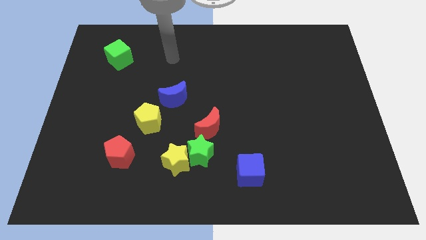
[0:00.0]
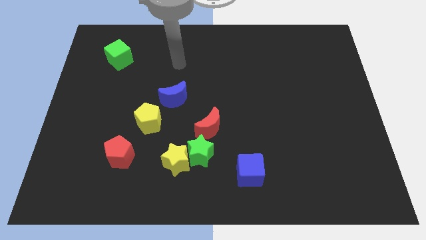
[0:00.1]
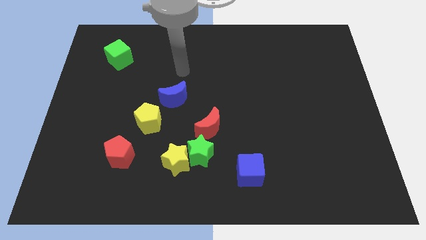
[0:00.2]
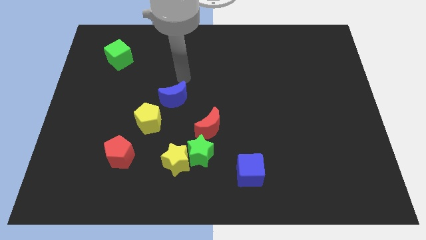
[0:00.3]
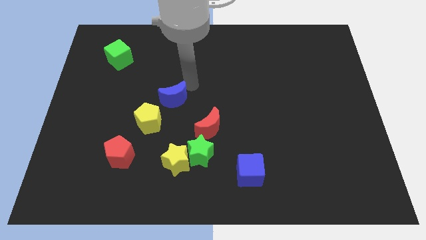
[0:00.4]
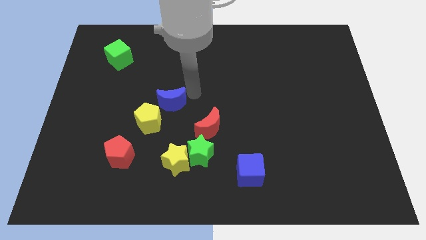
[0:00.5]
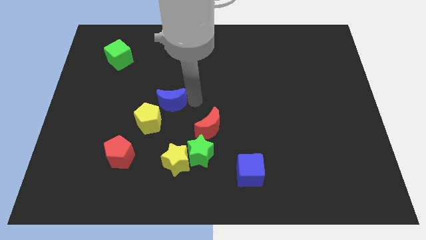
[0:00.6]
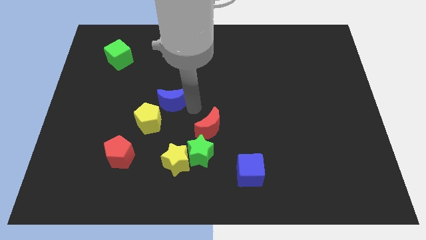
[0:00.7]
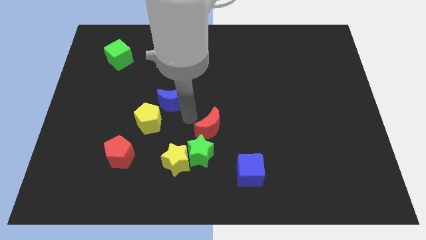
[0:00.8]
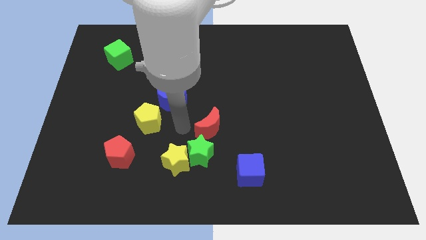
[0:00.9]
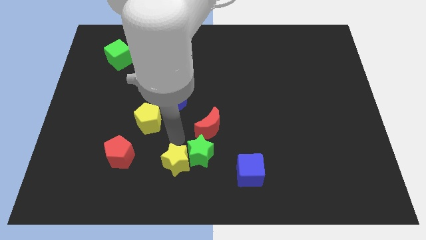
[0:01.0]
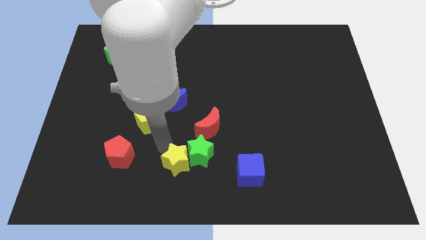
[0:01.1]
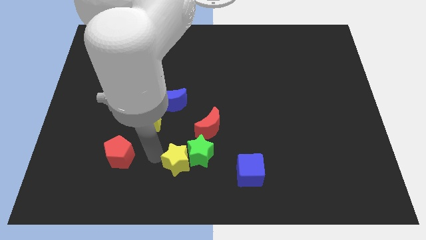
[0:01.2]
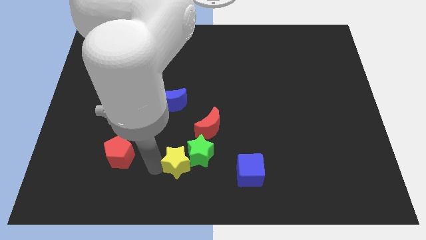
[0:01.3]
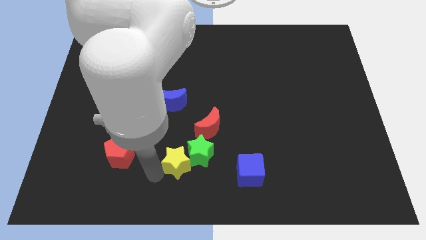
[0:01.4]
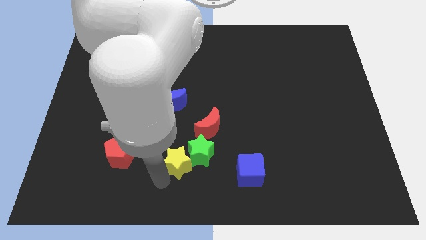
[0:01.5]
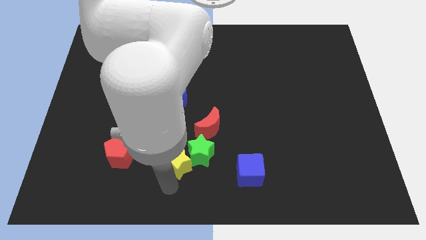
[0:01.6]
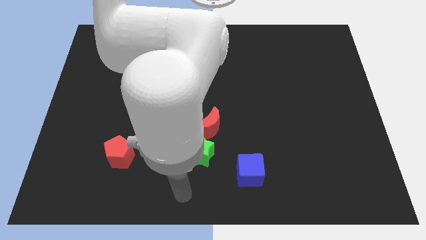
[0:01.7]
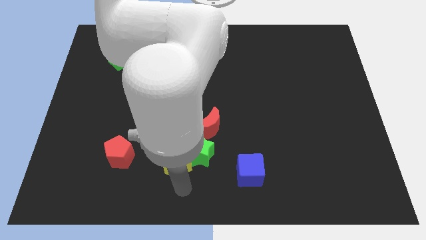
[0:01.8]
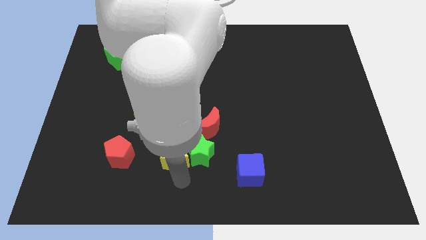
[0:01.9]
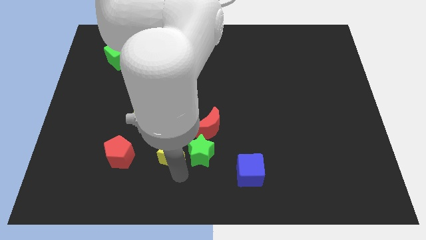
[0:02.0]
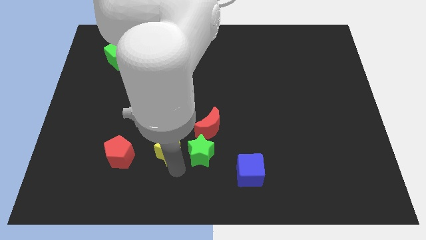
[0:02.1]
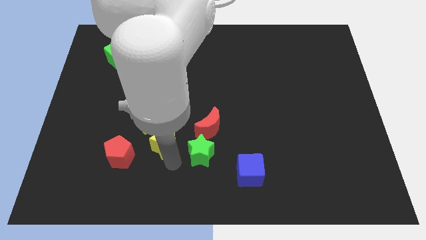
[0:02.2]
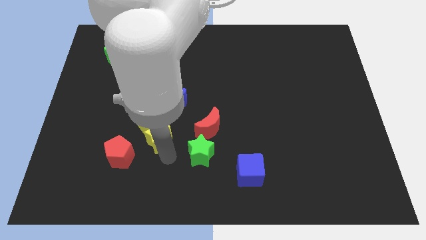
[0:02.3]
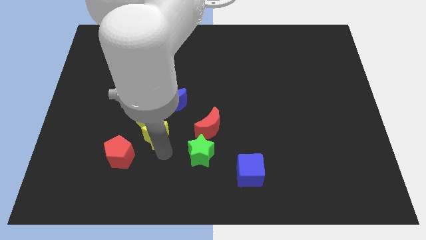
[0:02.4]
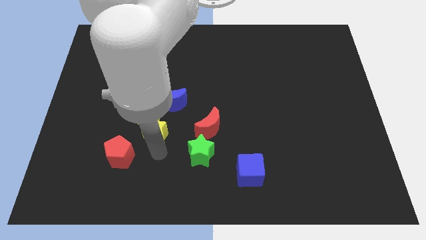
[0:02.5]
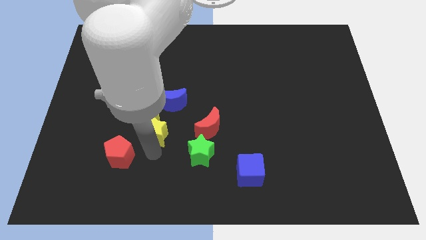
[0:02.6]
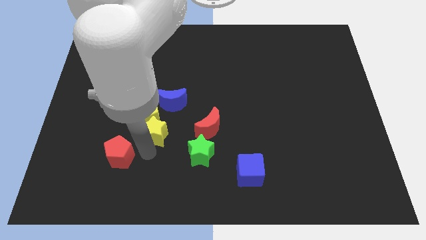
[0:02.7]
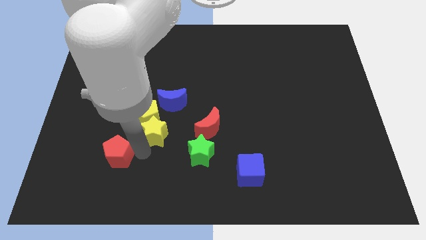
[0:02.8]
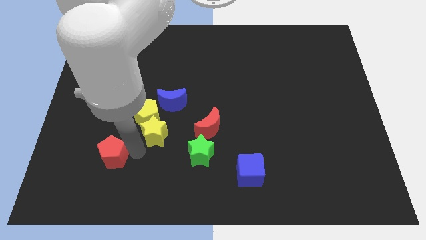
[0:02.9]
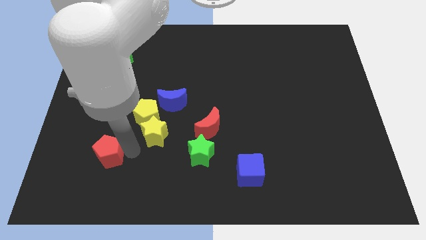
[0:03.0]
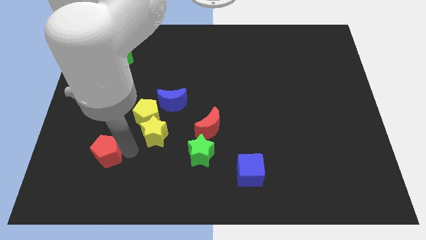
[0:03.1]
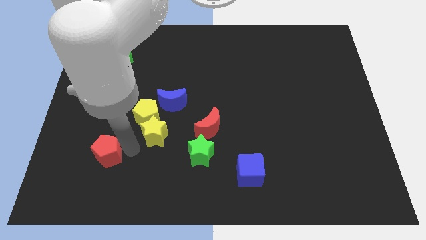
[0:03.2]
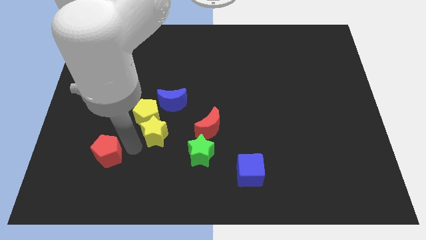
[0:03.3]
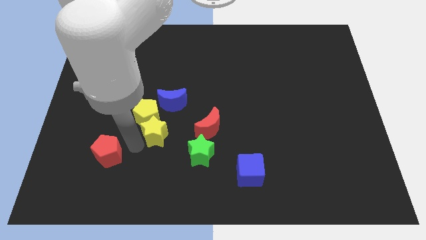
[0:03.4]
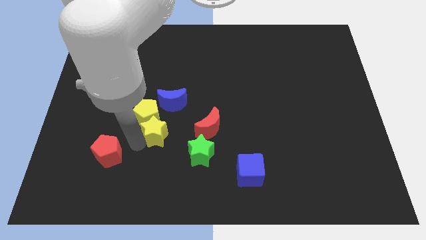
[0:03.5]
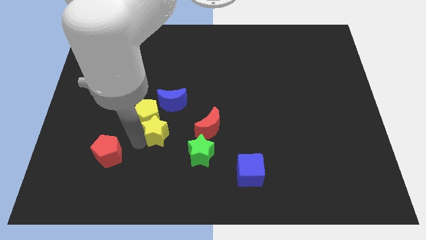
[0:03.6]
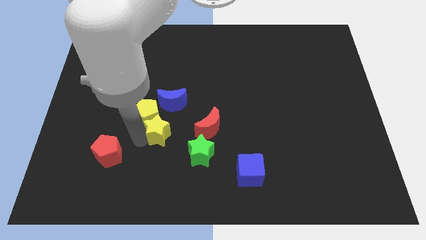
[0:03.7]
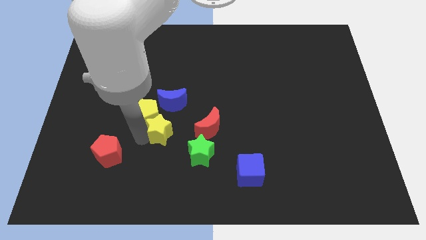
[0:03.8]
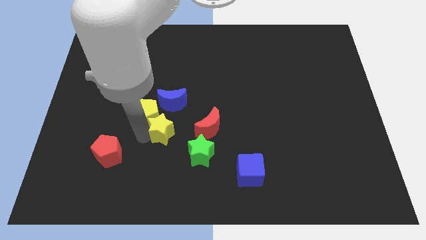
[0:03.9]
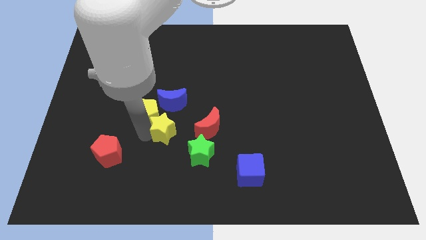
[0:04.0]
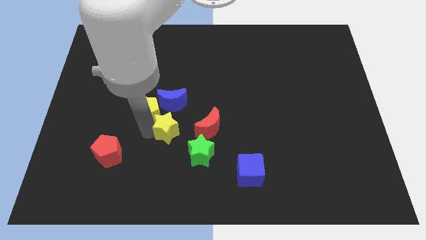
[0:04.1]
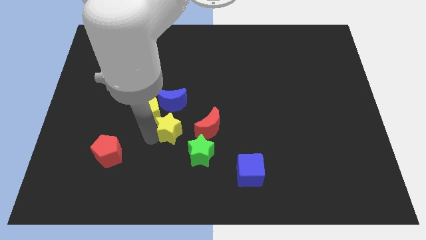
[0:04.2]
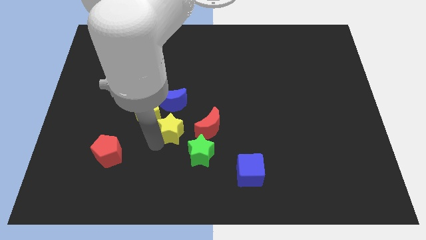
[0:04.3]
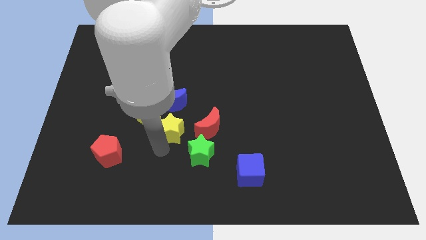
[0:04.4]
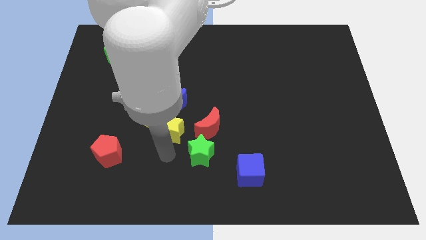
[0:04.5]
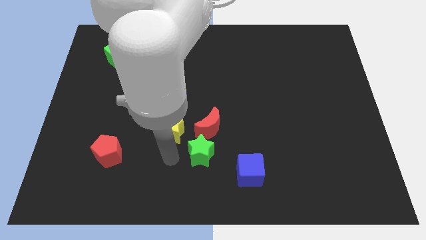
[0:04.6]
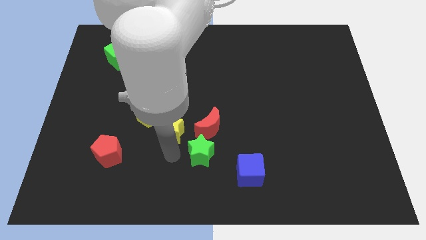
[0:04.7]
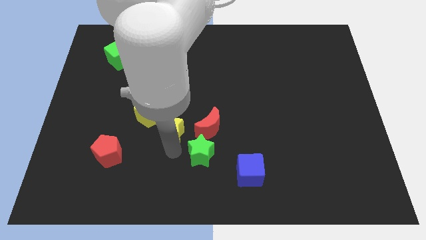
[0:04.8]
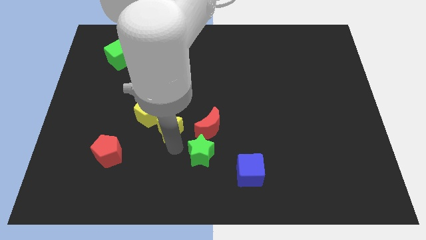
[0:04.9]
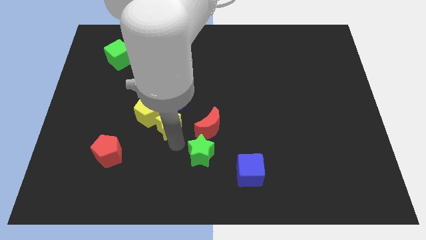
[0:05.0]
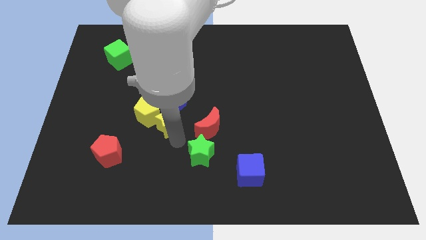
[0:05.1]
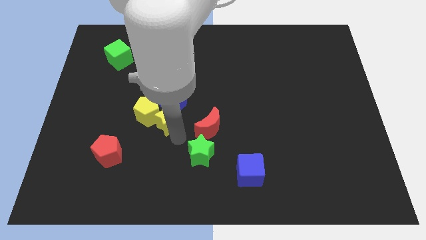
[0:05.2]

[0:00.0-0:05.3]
move the yellow star towards the blue moon
